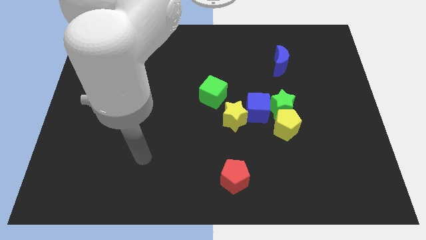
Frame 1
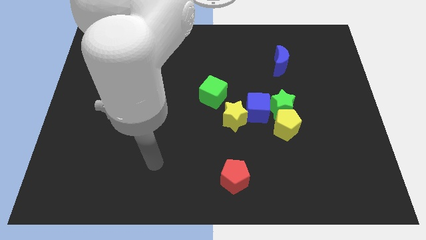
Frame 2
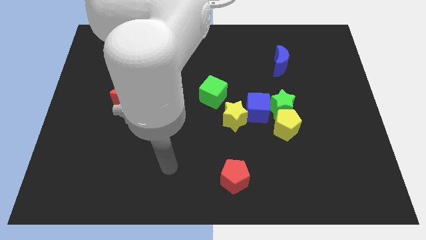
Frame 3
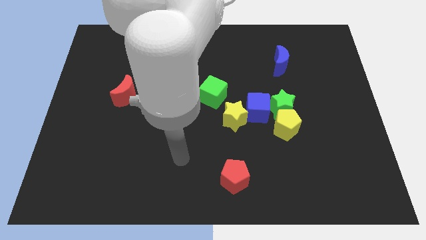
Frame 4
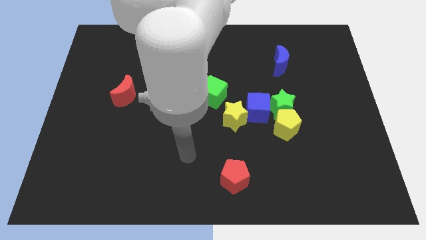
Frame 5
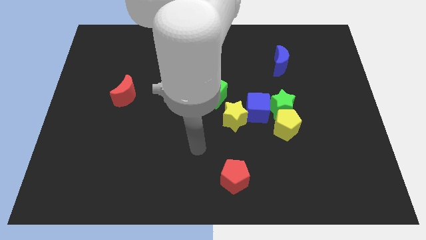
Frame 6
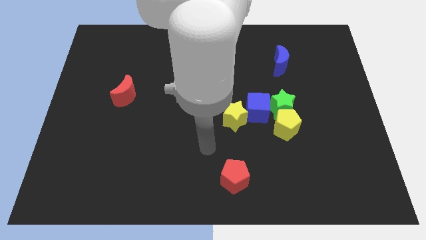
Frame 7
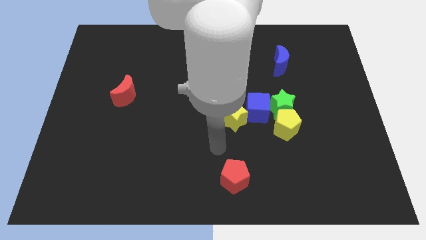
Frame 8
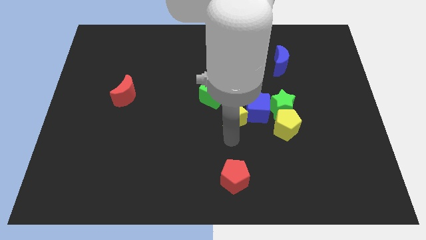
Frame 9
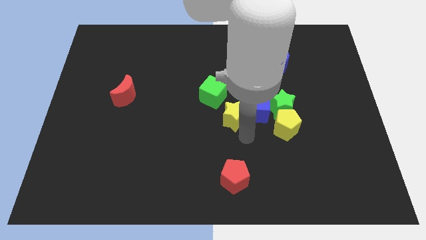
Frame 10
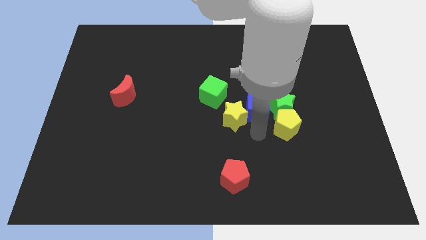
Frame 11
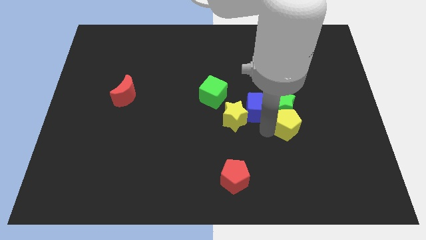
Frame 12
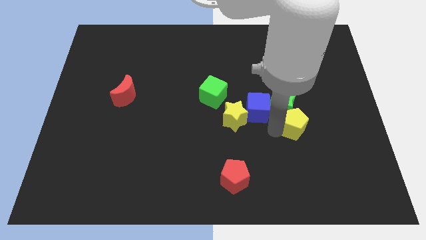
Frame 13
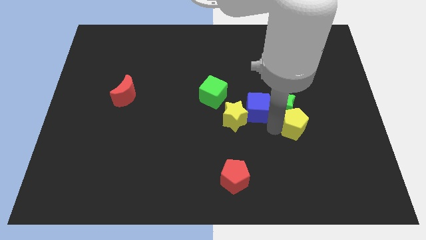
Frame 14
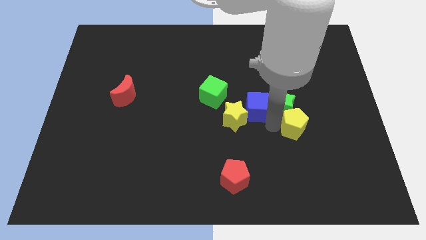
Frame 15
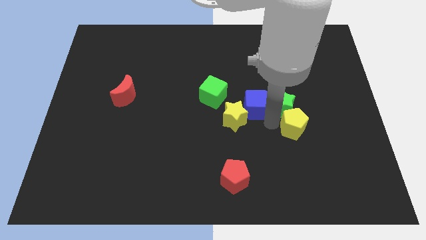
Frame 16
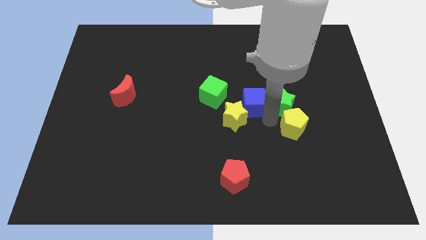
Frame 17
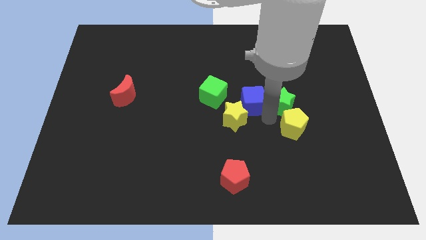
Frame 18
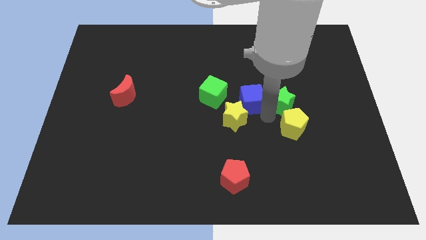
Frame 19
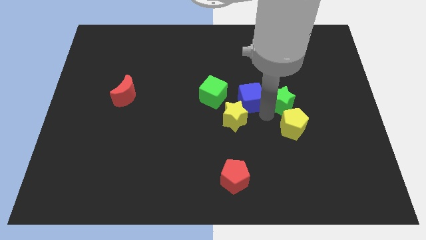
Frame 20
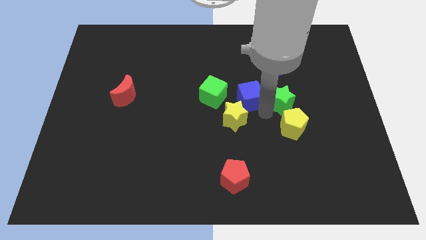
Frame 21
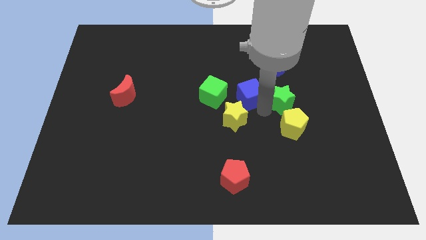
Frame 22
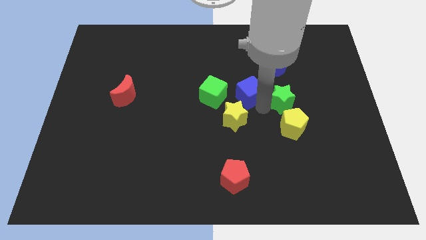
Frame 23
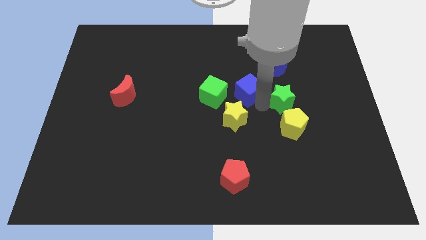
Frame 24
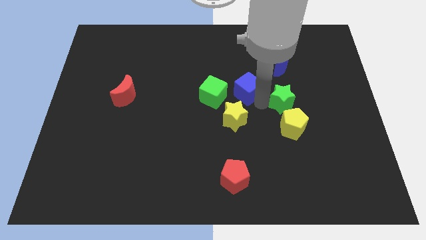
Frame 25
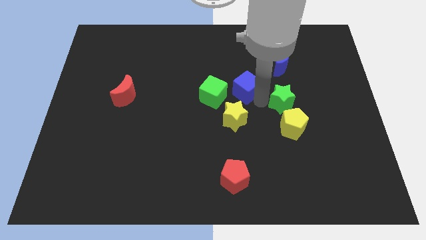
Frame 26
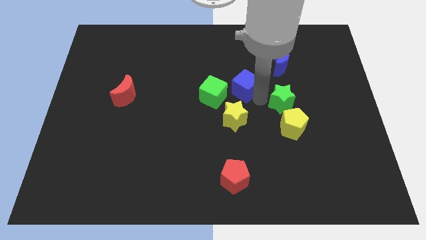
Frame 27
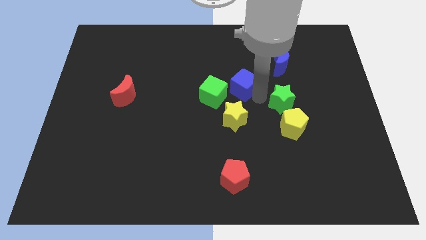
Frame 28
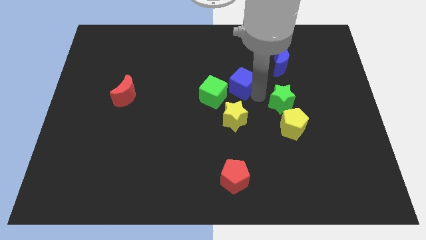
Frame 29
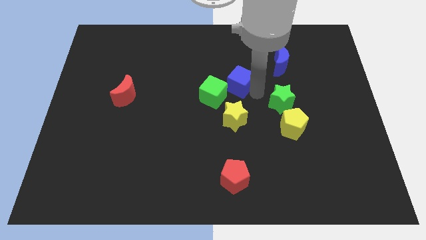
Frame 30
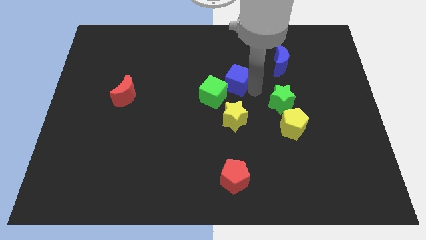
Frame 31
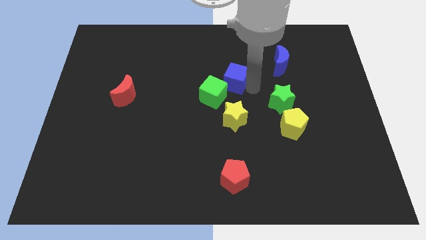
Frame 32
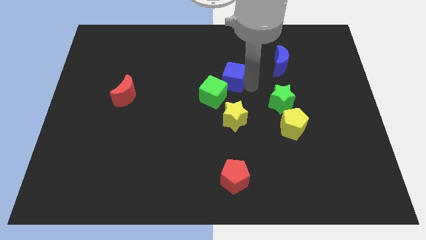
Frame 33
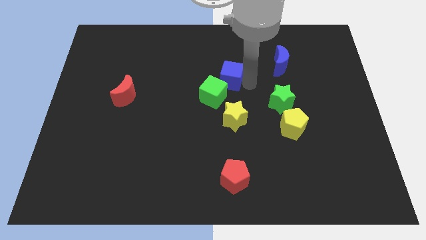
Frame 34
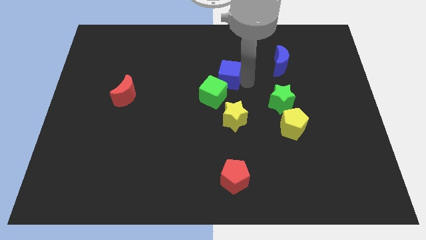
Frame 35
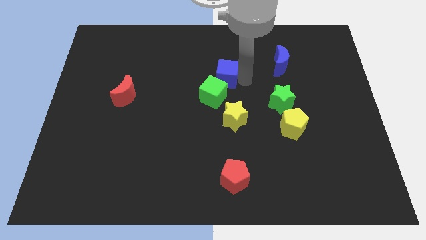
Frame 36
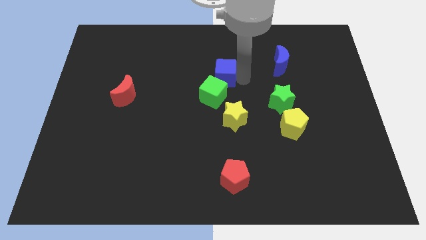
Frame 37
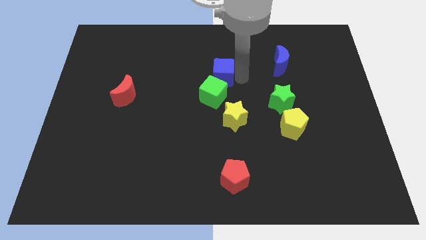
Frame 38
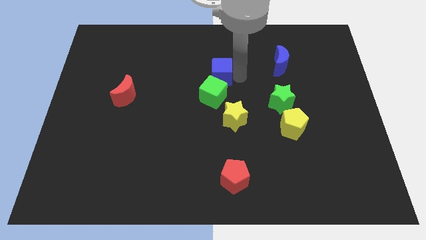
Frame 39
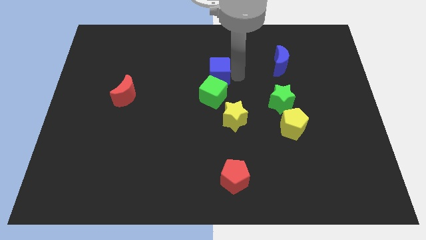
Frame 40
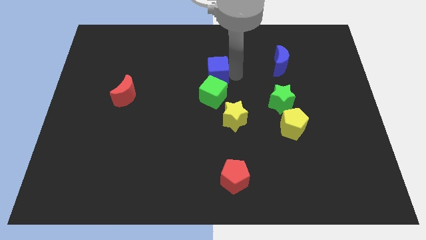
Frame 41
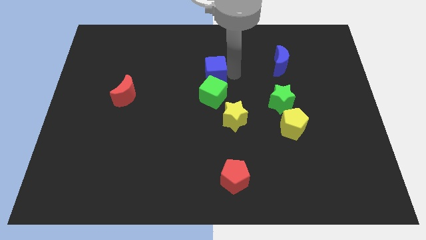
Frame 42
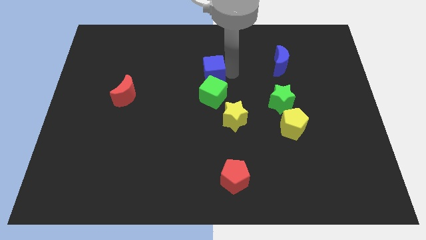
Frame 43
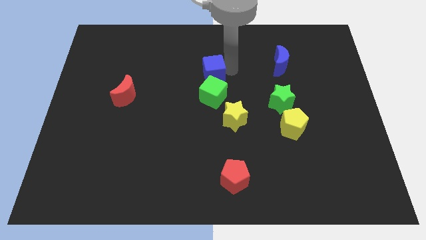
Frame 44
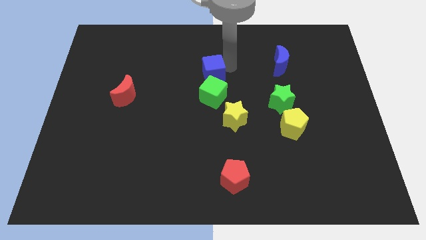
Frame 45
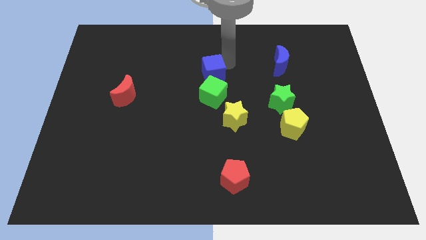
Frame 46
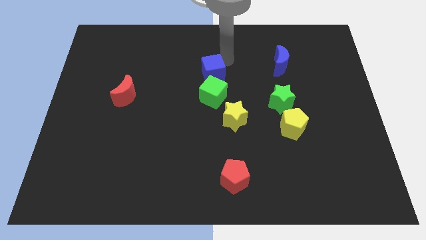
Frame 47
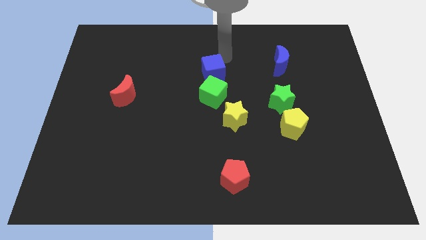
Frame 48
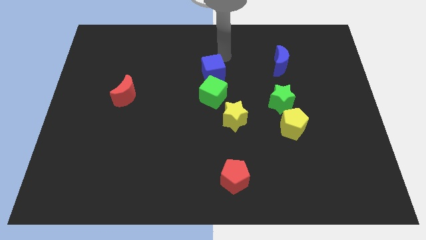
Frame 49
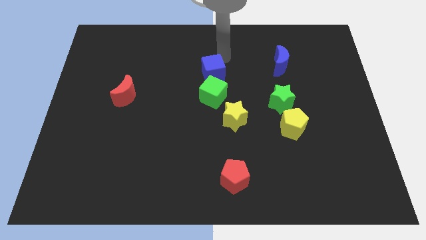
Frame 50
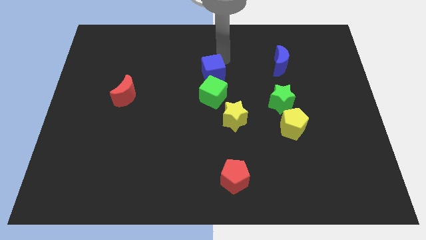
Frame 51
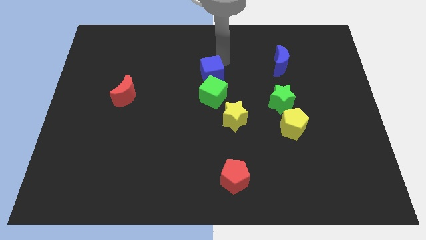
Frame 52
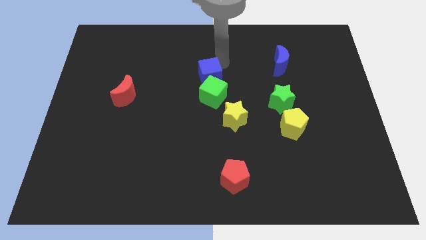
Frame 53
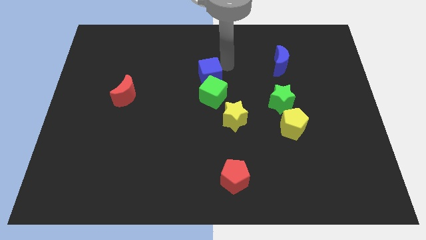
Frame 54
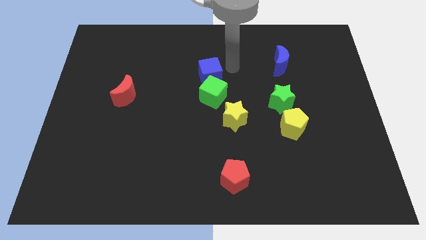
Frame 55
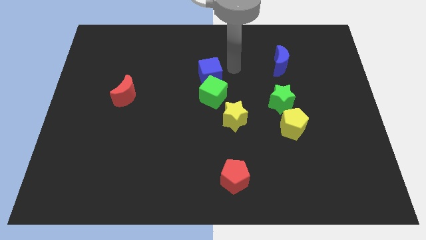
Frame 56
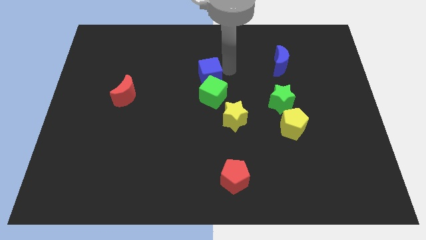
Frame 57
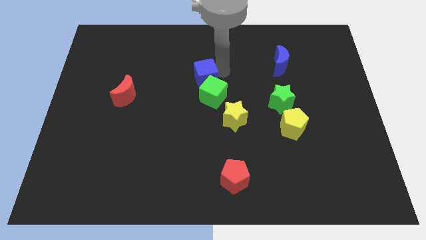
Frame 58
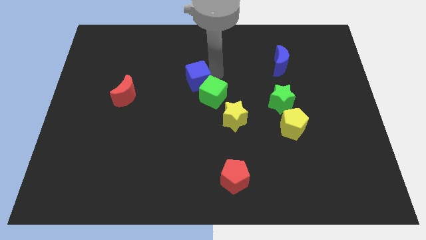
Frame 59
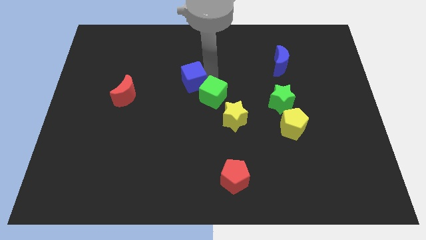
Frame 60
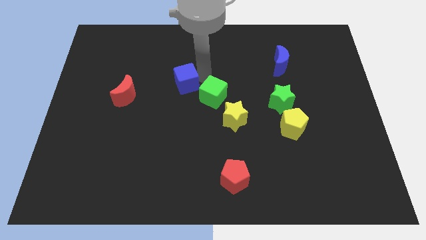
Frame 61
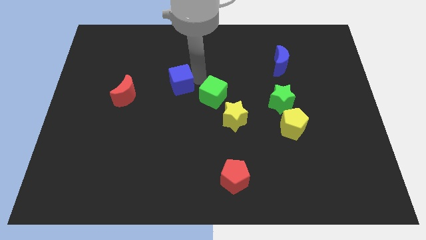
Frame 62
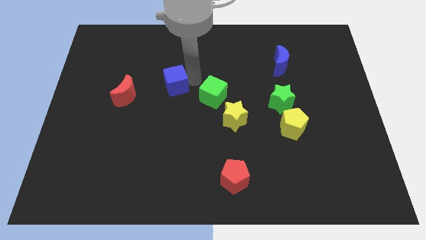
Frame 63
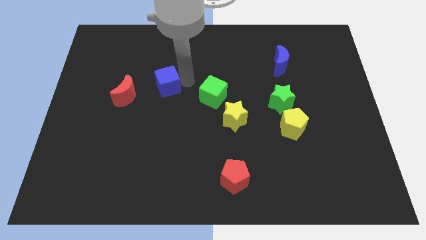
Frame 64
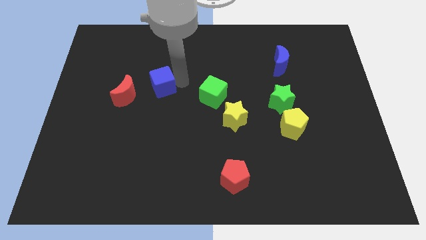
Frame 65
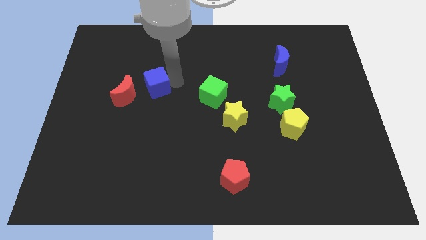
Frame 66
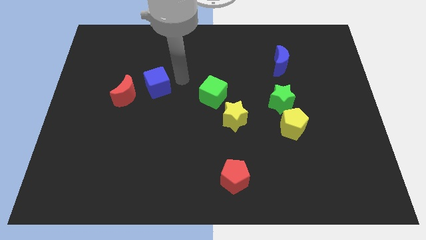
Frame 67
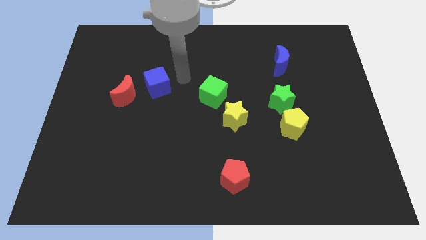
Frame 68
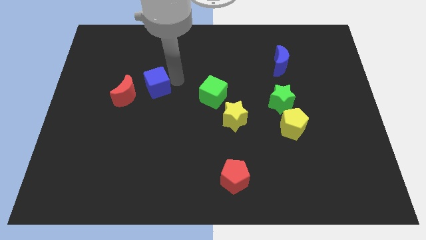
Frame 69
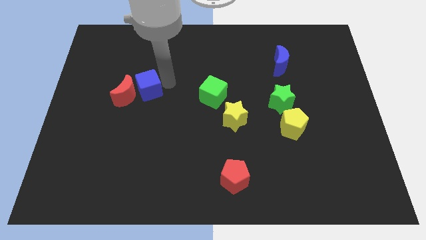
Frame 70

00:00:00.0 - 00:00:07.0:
push the blue cube close to the red moon
